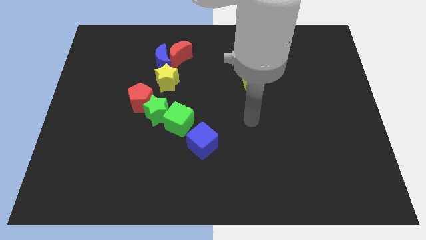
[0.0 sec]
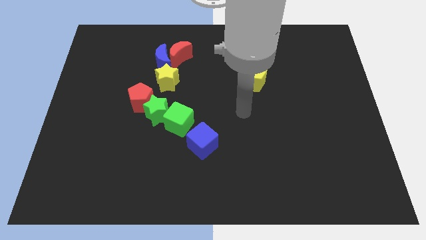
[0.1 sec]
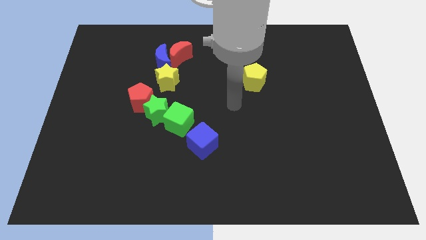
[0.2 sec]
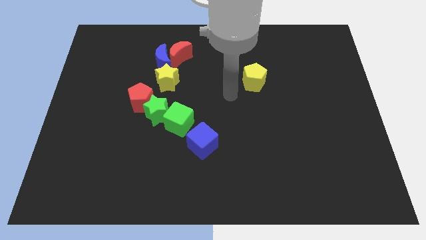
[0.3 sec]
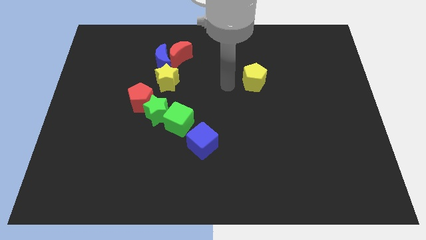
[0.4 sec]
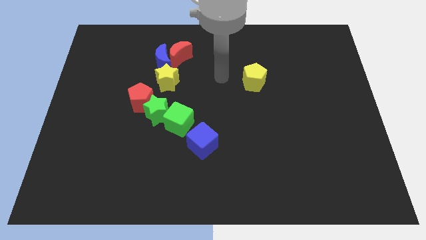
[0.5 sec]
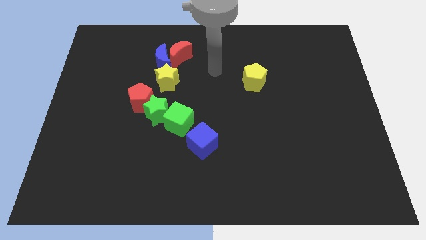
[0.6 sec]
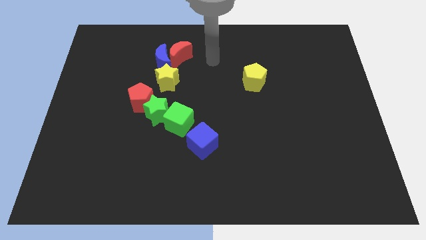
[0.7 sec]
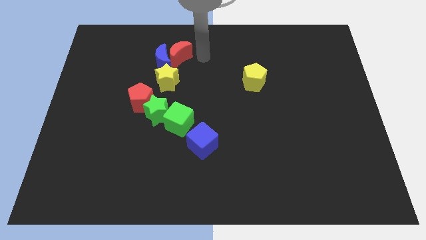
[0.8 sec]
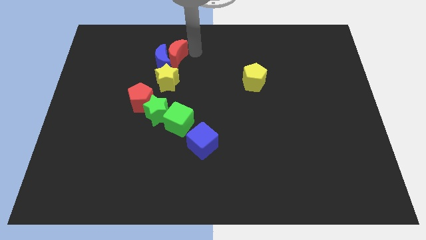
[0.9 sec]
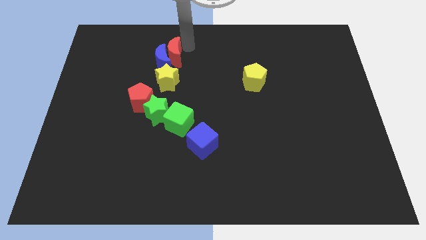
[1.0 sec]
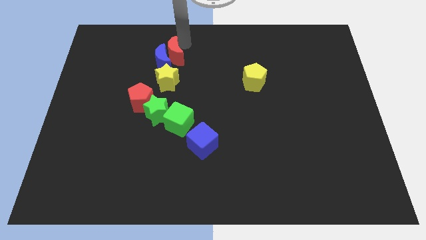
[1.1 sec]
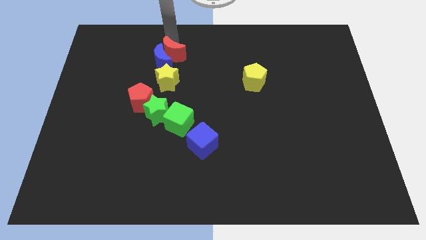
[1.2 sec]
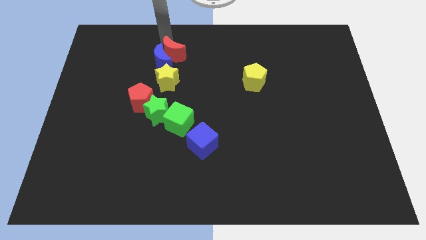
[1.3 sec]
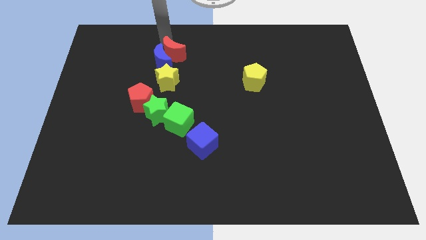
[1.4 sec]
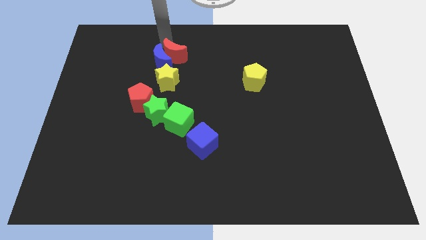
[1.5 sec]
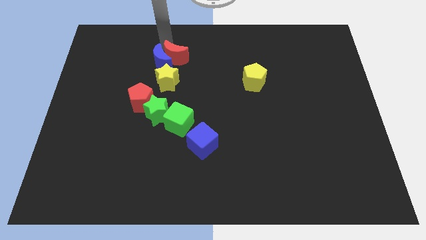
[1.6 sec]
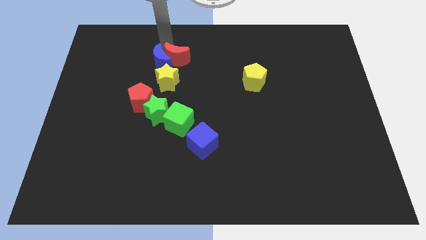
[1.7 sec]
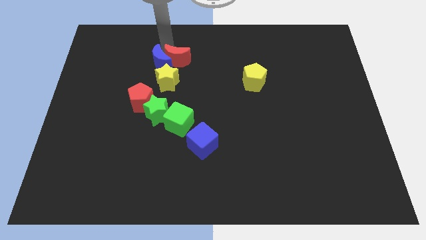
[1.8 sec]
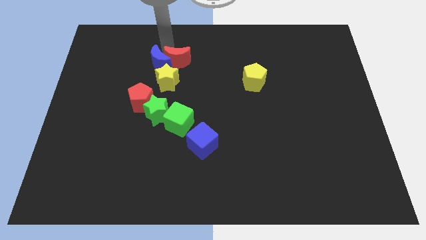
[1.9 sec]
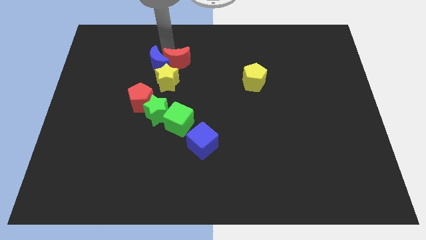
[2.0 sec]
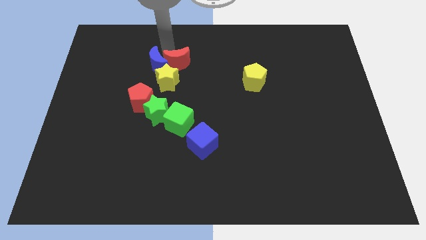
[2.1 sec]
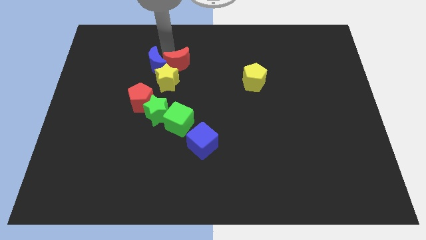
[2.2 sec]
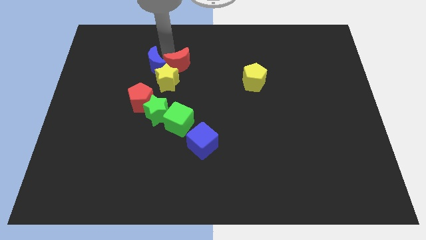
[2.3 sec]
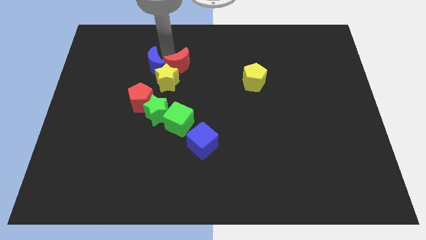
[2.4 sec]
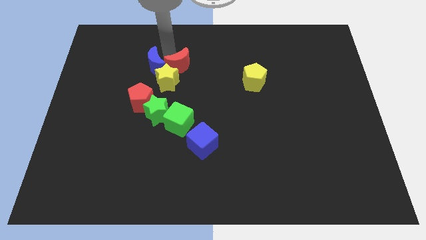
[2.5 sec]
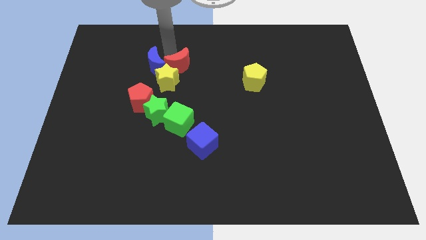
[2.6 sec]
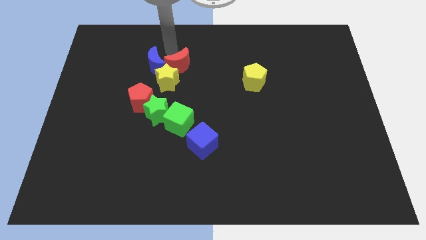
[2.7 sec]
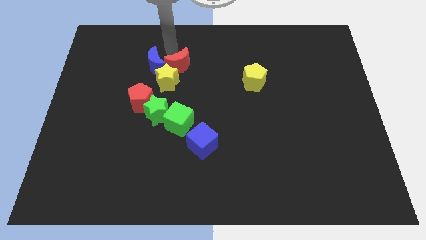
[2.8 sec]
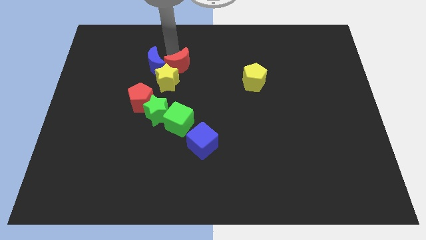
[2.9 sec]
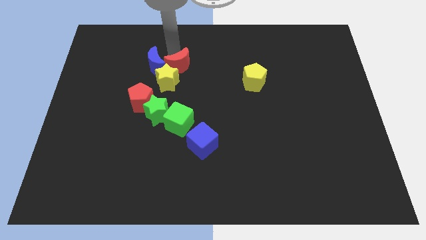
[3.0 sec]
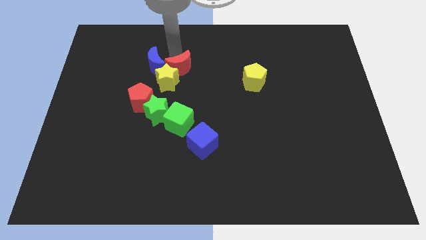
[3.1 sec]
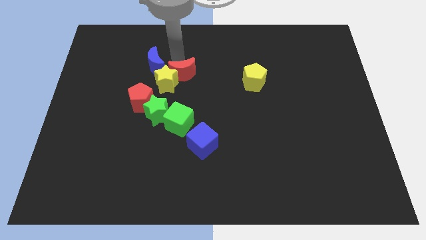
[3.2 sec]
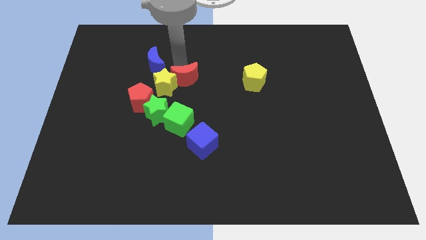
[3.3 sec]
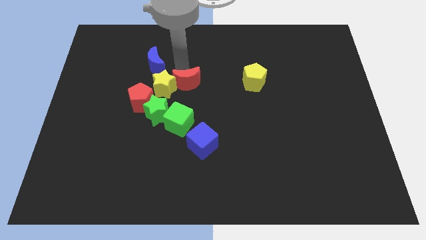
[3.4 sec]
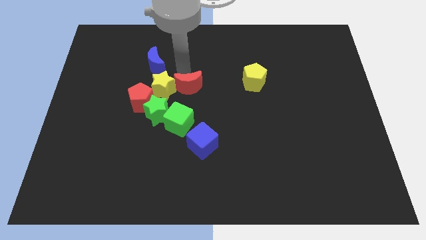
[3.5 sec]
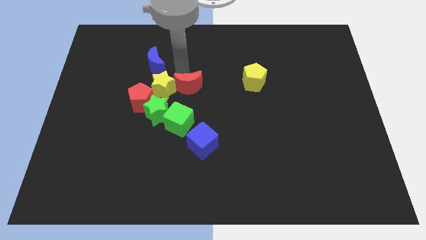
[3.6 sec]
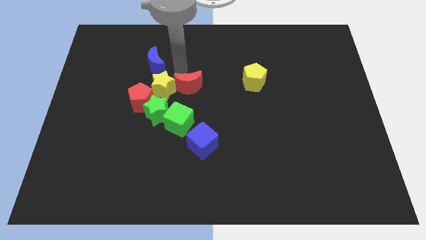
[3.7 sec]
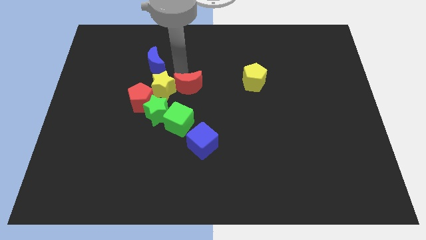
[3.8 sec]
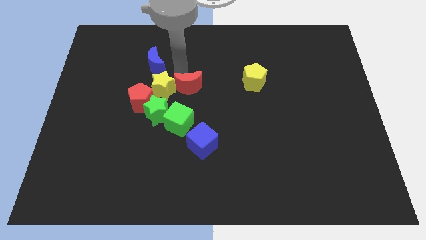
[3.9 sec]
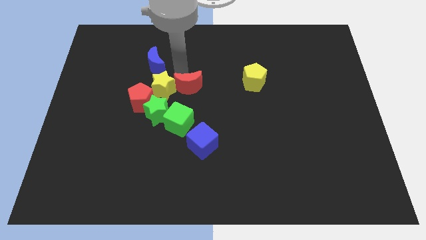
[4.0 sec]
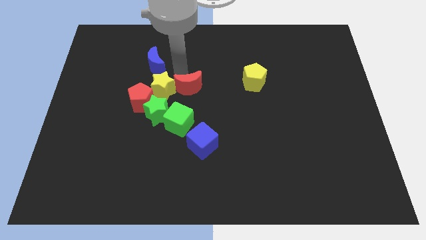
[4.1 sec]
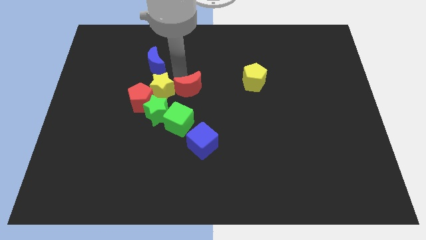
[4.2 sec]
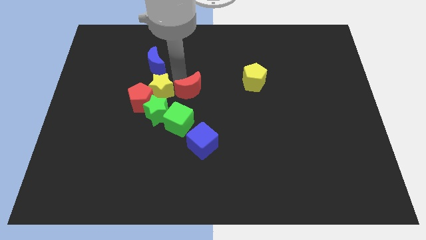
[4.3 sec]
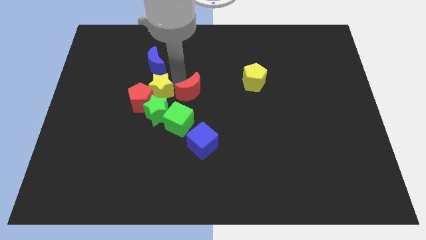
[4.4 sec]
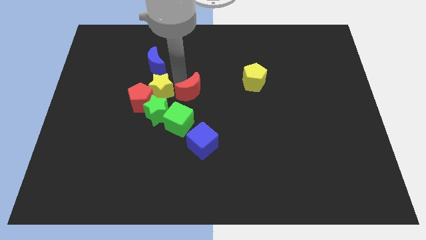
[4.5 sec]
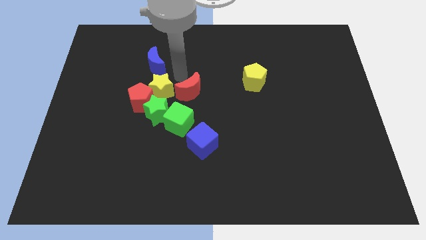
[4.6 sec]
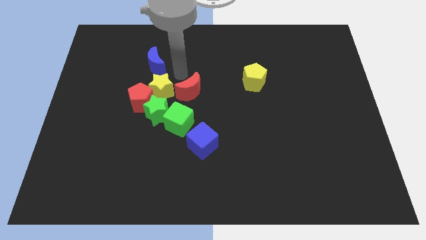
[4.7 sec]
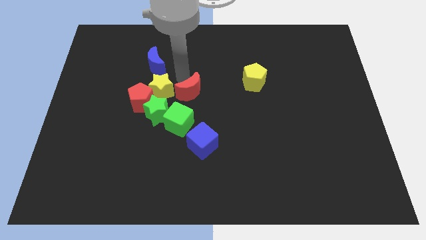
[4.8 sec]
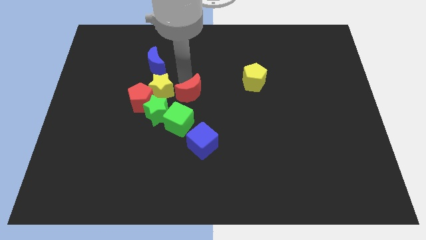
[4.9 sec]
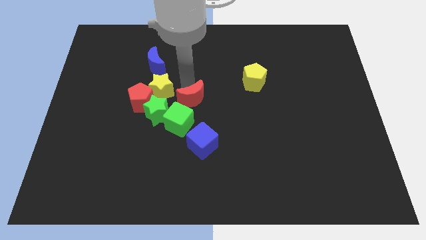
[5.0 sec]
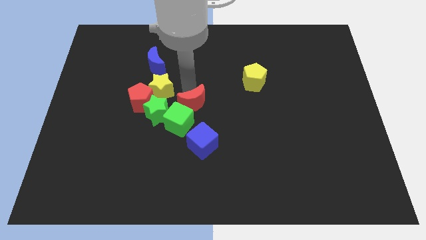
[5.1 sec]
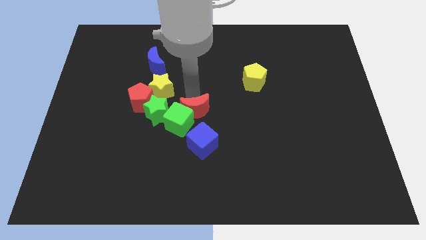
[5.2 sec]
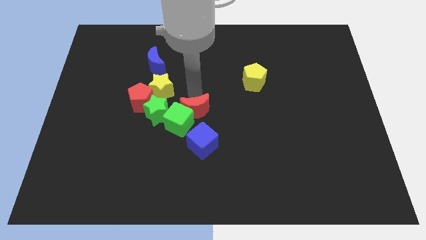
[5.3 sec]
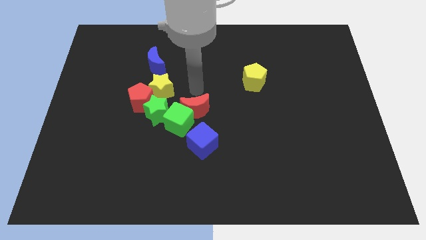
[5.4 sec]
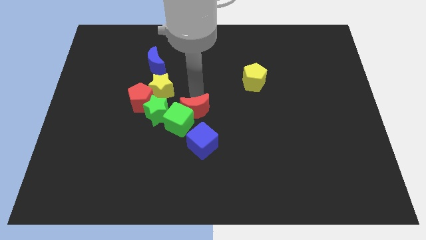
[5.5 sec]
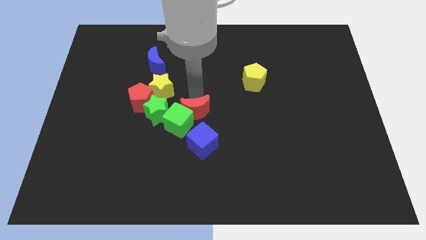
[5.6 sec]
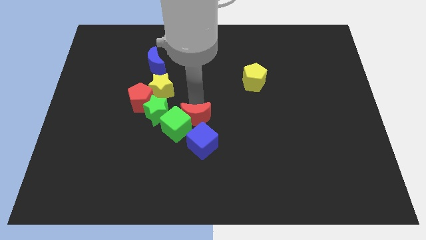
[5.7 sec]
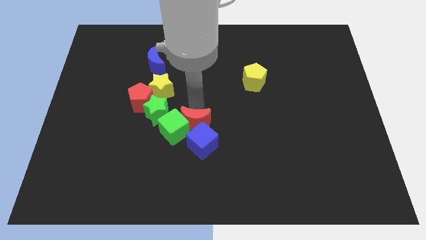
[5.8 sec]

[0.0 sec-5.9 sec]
put the red moon next to the blue cube

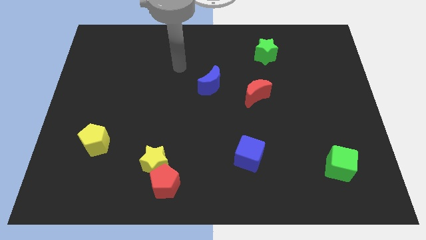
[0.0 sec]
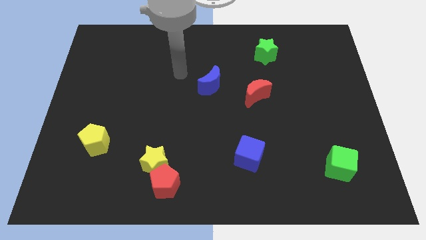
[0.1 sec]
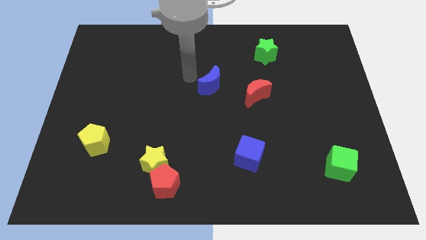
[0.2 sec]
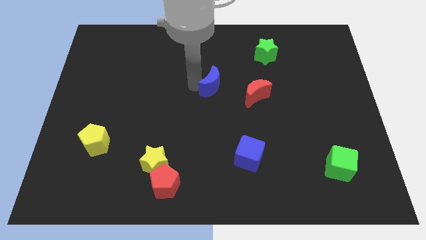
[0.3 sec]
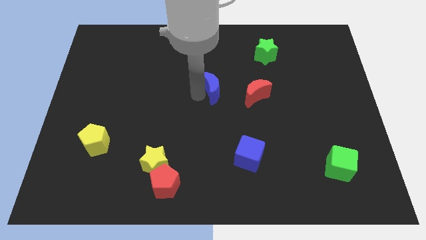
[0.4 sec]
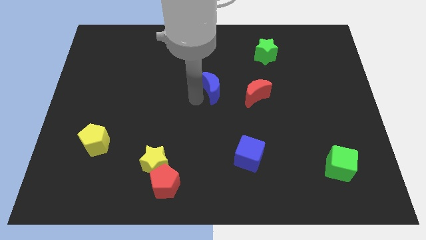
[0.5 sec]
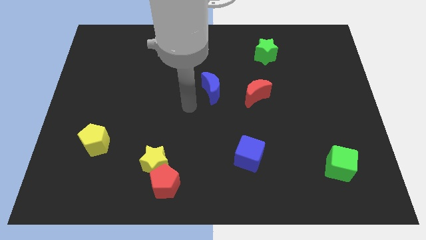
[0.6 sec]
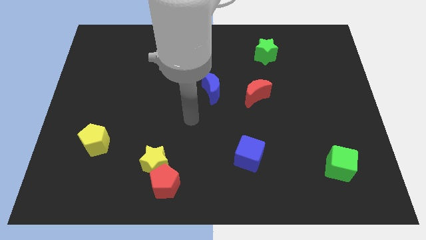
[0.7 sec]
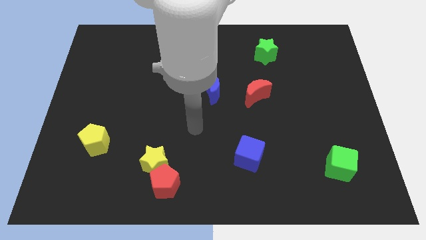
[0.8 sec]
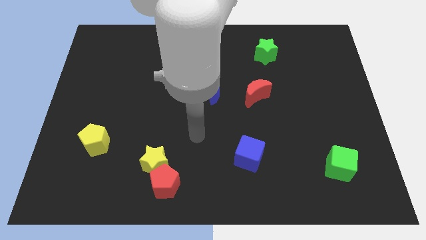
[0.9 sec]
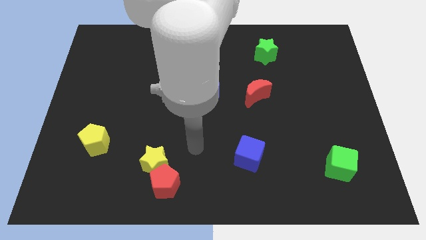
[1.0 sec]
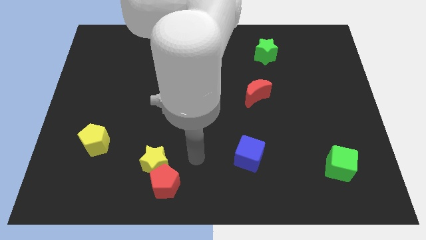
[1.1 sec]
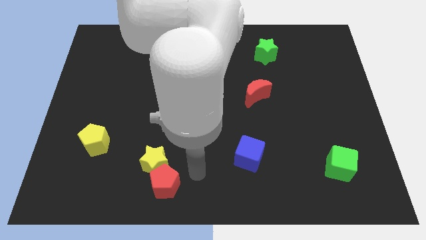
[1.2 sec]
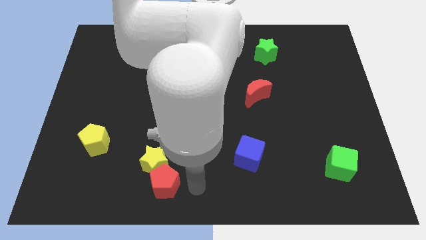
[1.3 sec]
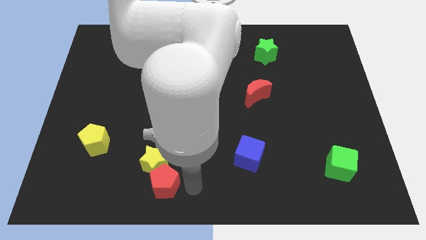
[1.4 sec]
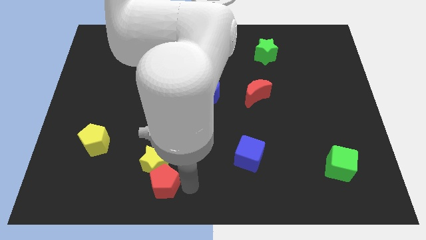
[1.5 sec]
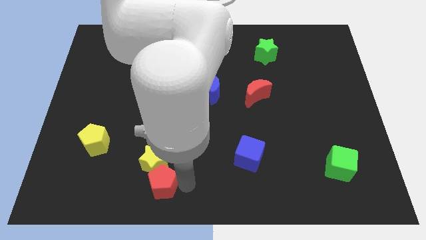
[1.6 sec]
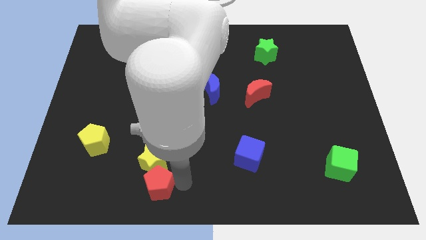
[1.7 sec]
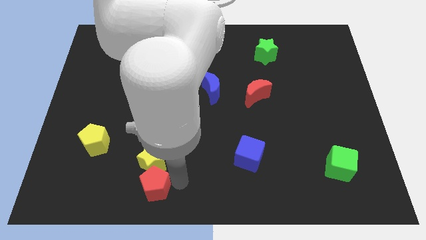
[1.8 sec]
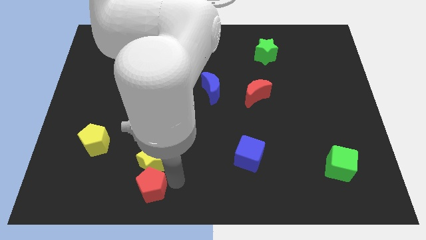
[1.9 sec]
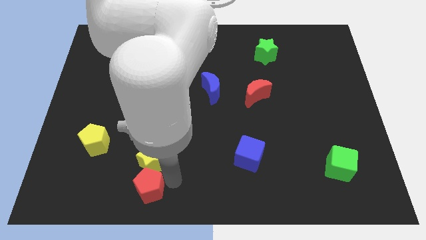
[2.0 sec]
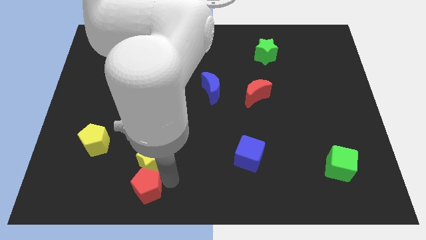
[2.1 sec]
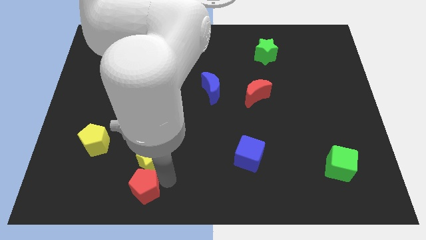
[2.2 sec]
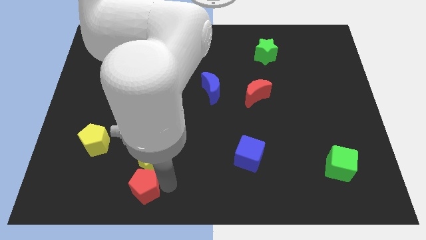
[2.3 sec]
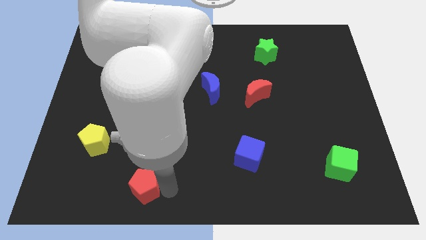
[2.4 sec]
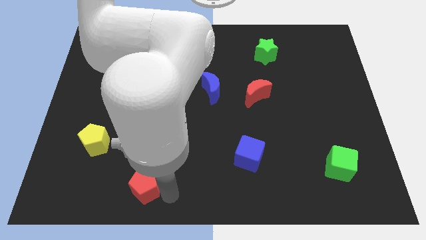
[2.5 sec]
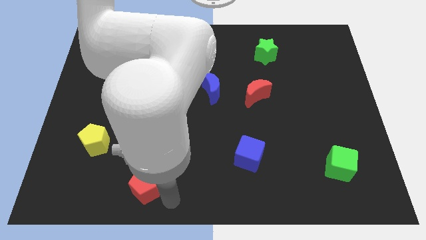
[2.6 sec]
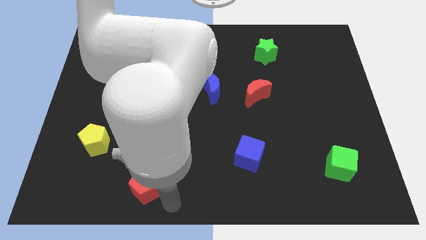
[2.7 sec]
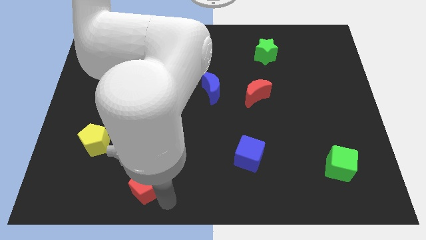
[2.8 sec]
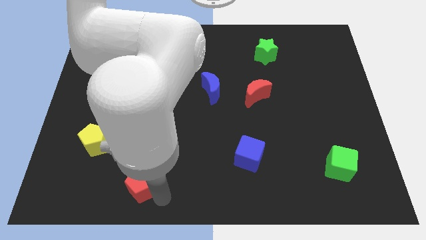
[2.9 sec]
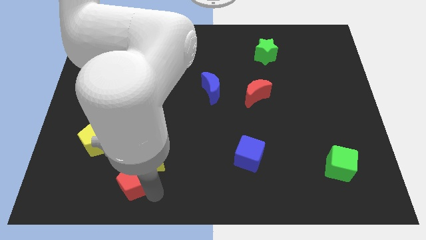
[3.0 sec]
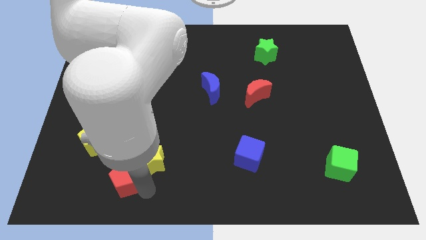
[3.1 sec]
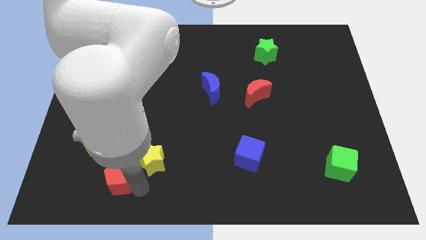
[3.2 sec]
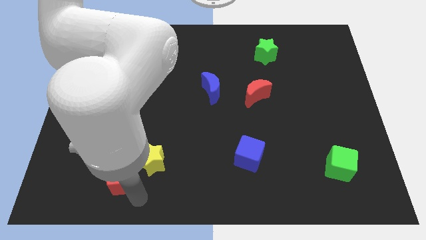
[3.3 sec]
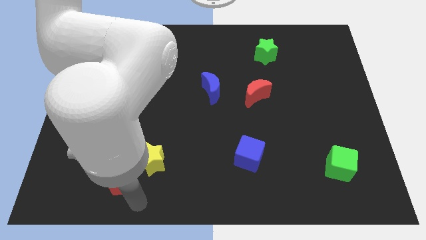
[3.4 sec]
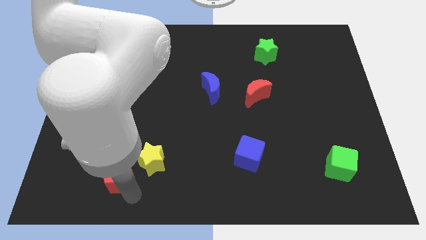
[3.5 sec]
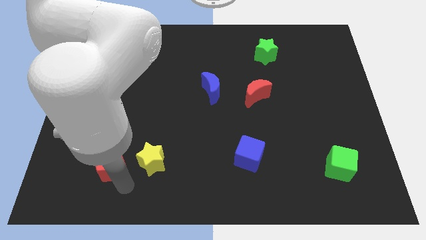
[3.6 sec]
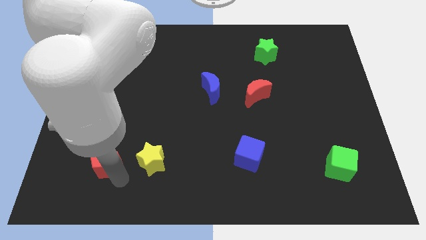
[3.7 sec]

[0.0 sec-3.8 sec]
push the red pentagon towards the yellow pentagon
